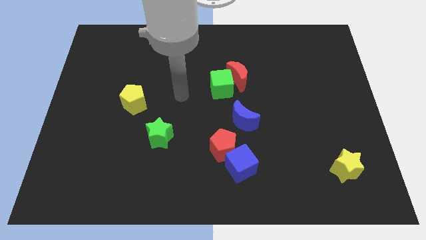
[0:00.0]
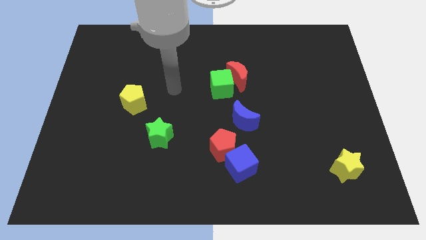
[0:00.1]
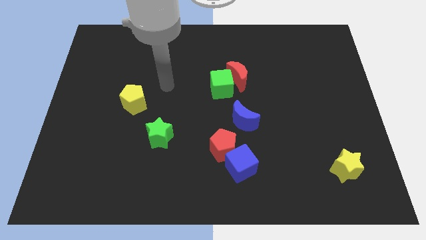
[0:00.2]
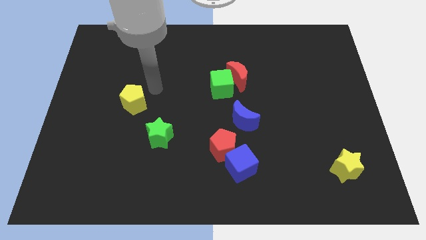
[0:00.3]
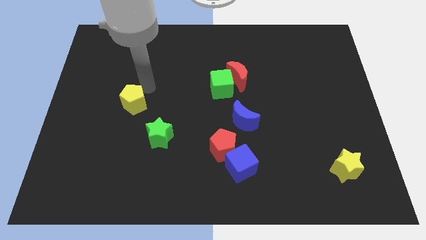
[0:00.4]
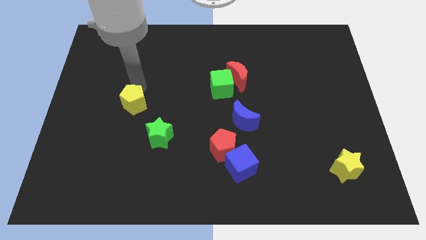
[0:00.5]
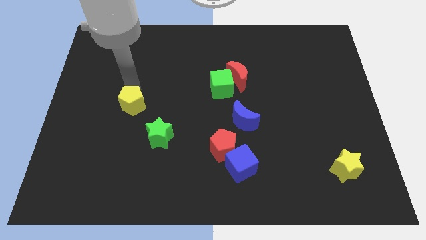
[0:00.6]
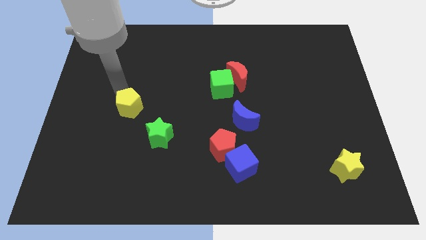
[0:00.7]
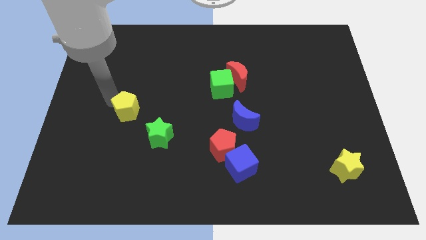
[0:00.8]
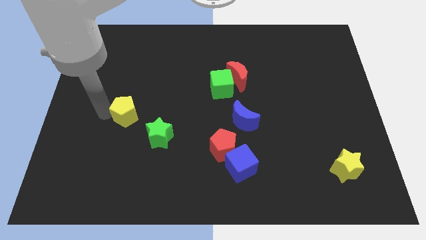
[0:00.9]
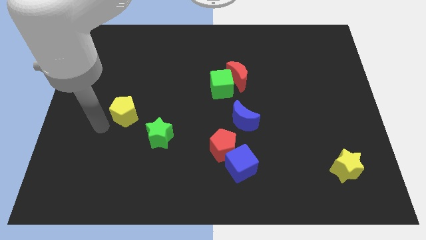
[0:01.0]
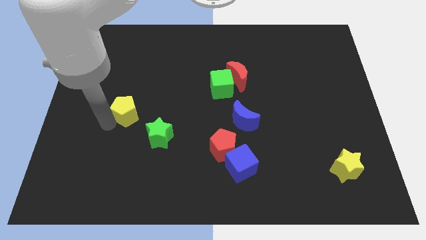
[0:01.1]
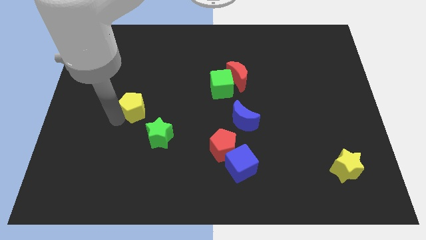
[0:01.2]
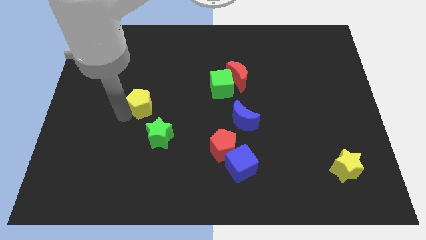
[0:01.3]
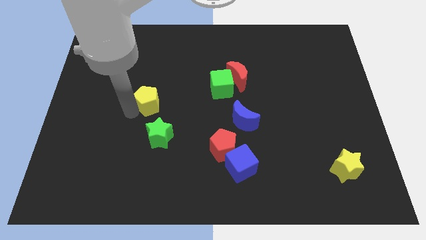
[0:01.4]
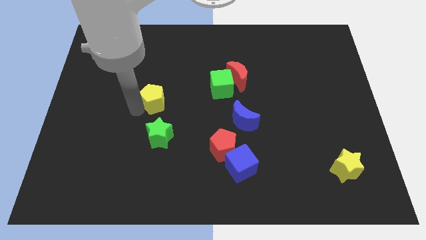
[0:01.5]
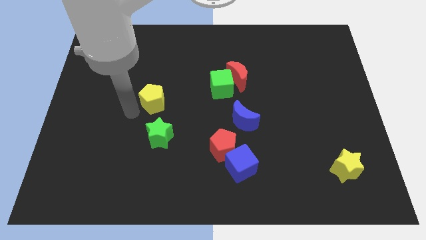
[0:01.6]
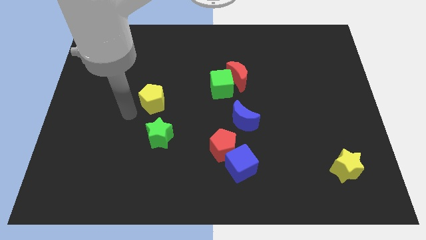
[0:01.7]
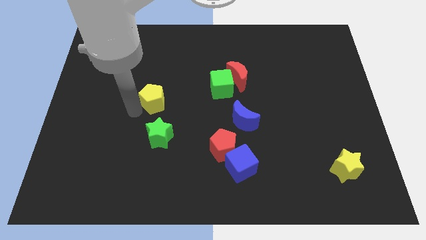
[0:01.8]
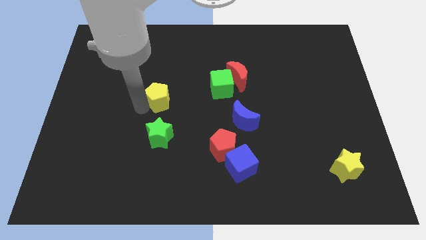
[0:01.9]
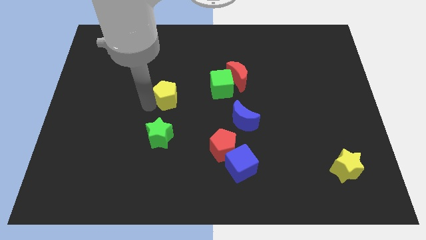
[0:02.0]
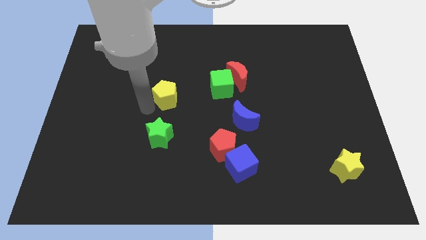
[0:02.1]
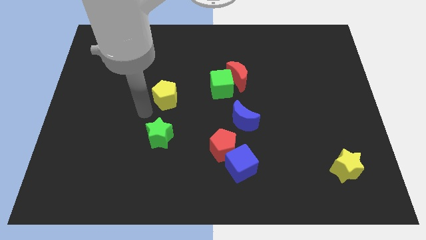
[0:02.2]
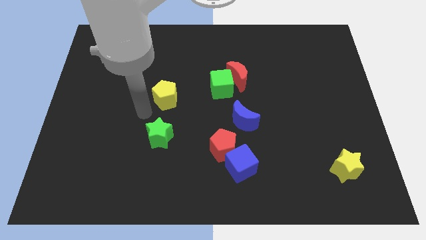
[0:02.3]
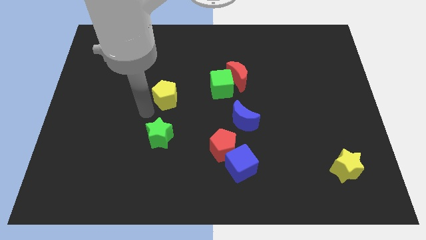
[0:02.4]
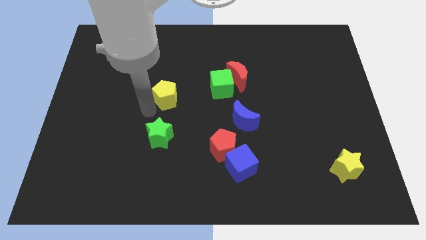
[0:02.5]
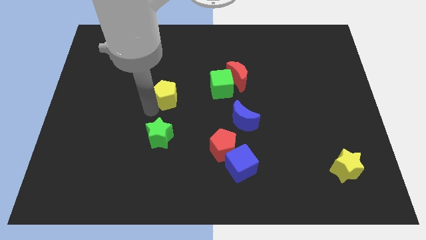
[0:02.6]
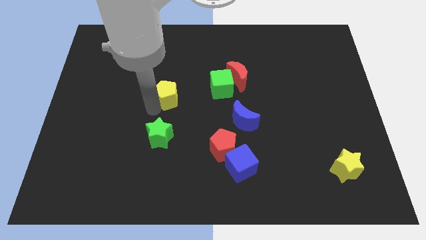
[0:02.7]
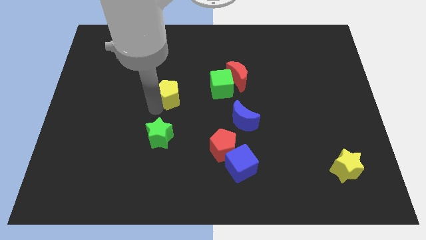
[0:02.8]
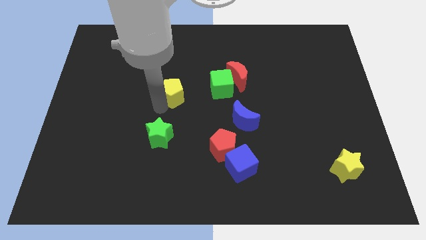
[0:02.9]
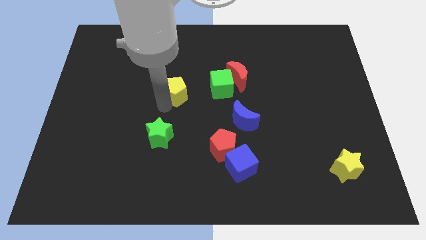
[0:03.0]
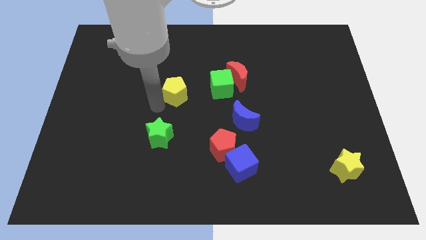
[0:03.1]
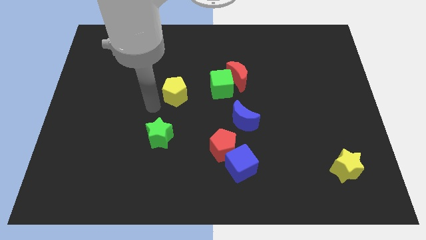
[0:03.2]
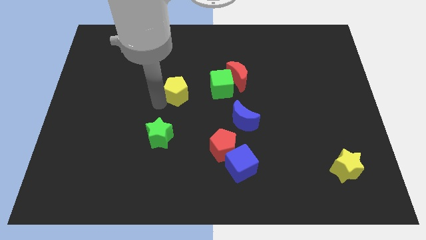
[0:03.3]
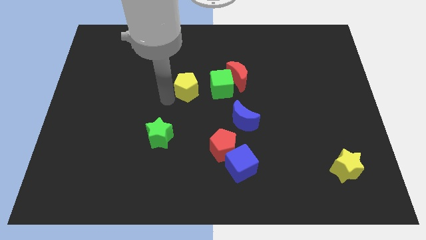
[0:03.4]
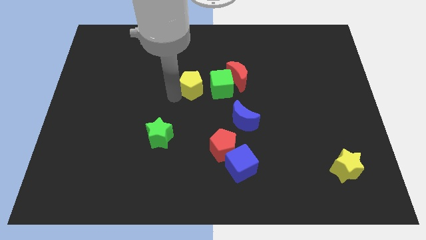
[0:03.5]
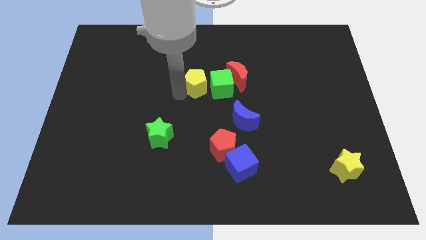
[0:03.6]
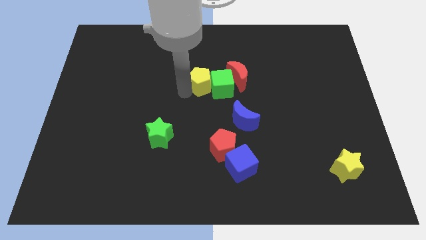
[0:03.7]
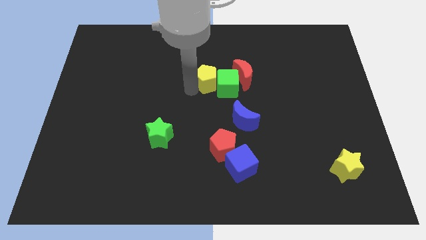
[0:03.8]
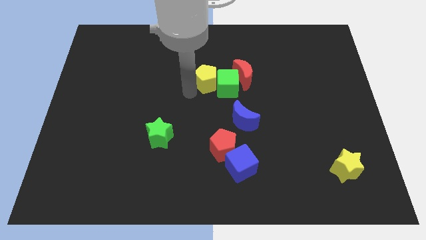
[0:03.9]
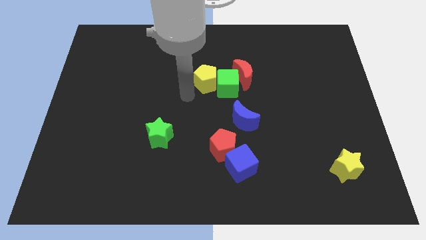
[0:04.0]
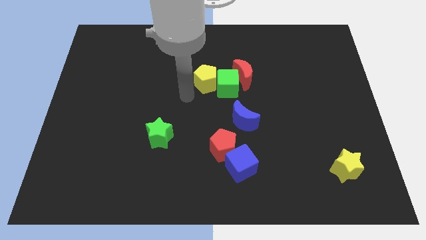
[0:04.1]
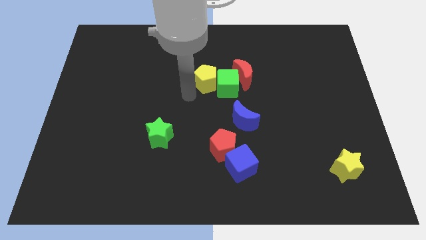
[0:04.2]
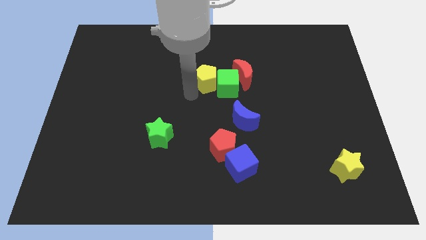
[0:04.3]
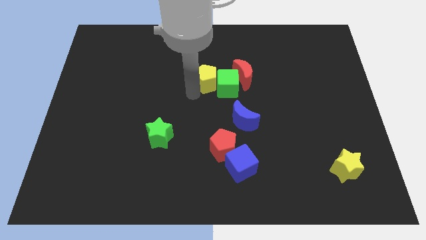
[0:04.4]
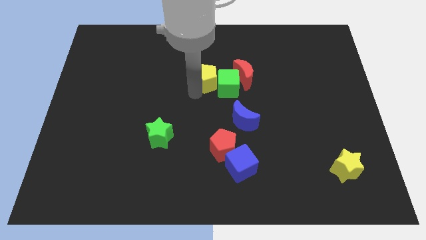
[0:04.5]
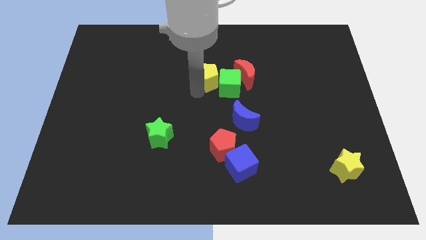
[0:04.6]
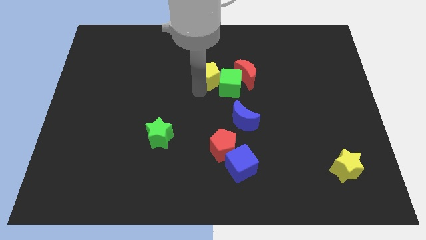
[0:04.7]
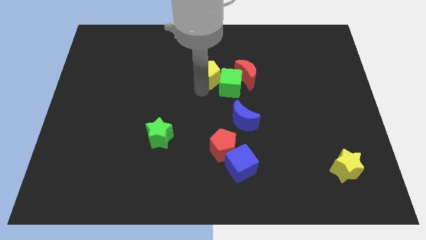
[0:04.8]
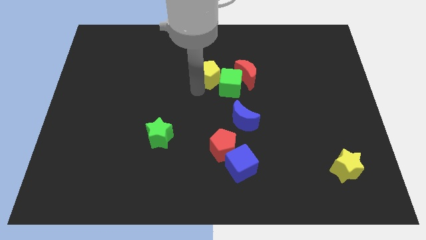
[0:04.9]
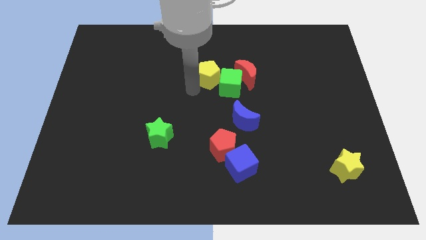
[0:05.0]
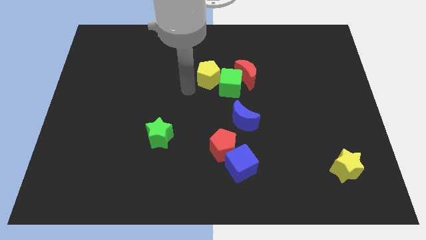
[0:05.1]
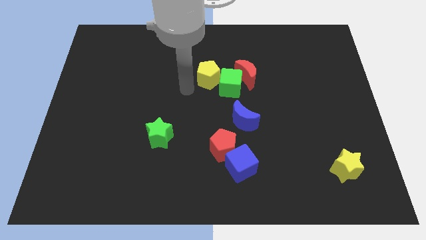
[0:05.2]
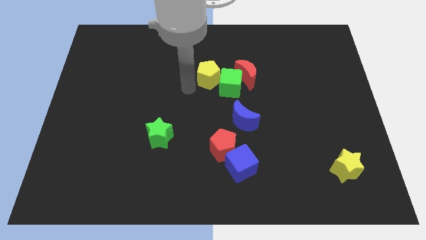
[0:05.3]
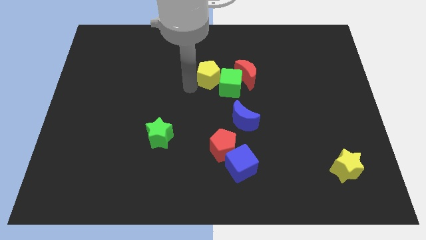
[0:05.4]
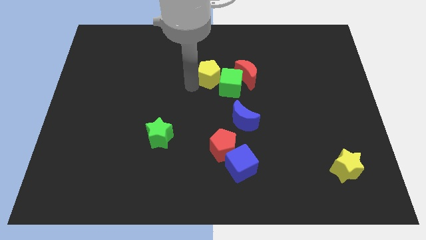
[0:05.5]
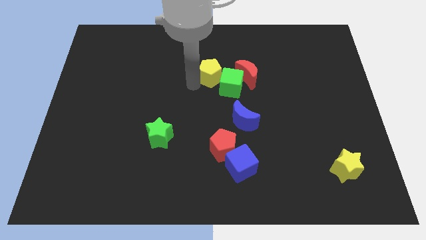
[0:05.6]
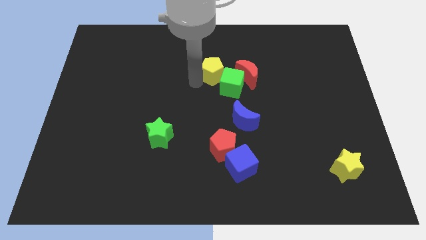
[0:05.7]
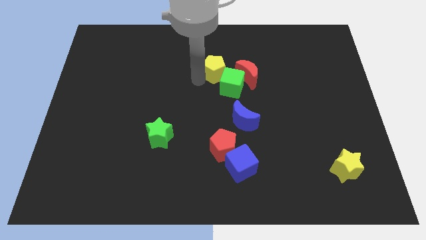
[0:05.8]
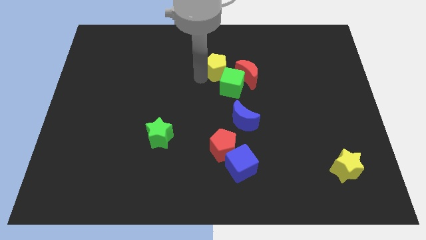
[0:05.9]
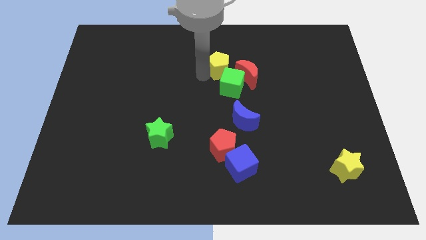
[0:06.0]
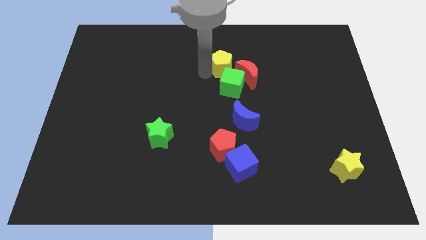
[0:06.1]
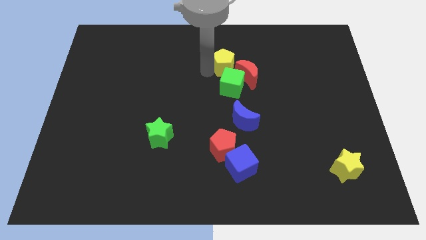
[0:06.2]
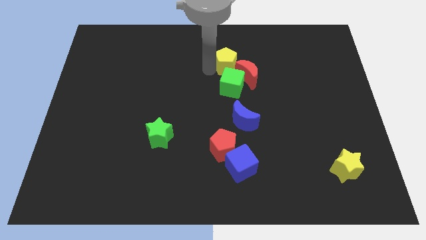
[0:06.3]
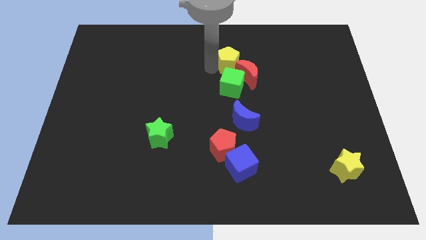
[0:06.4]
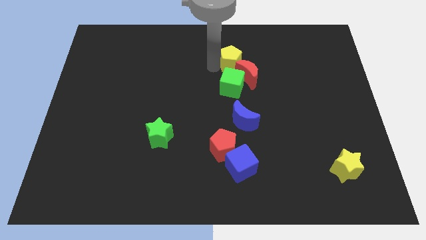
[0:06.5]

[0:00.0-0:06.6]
put the yellow pentagon towards the red moon
